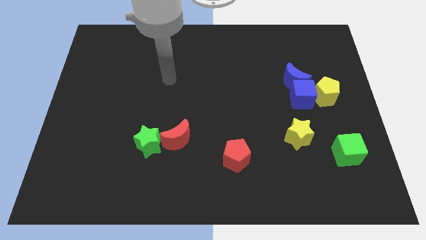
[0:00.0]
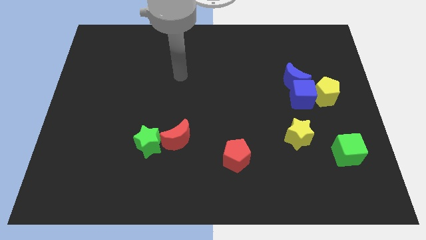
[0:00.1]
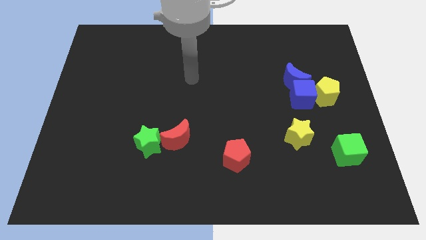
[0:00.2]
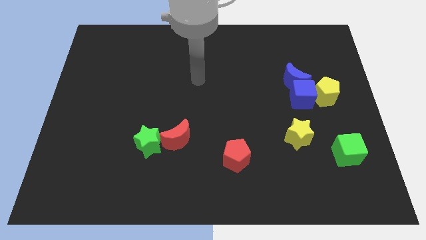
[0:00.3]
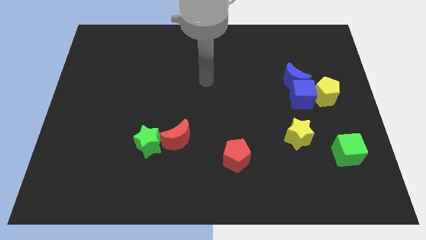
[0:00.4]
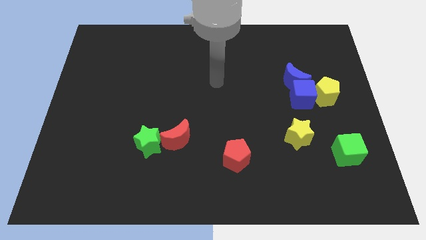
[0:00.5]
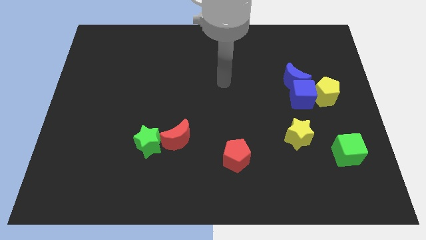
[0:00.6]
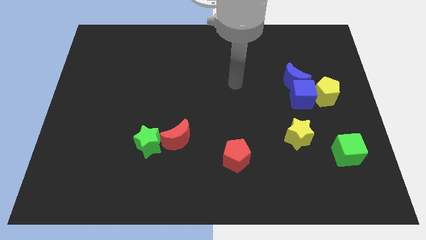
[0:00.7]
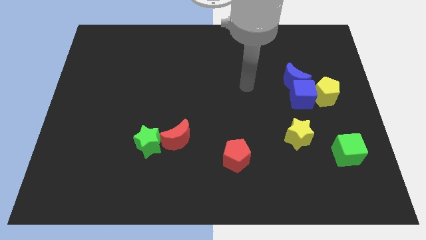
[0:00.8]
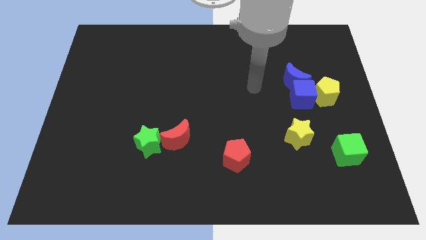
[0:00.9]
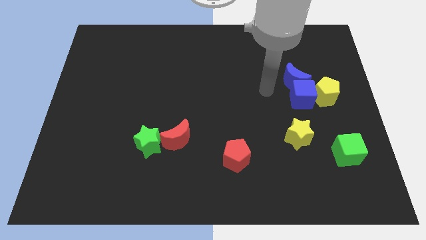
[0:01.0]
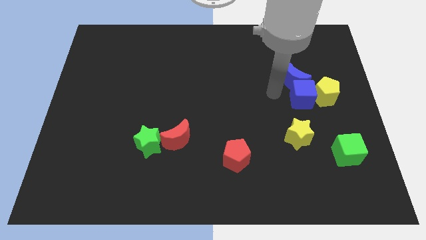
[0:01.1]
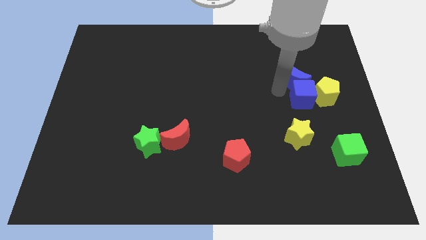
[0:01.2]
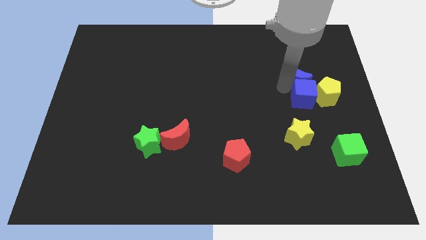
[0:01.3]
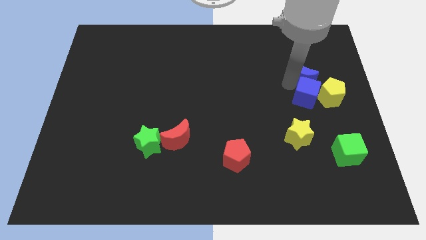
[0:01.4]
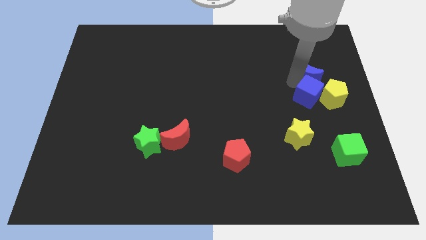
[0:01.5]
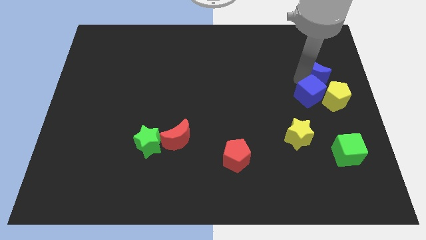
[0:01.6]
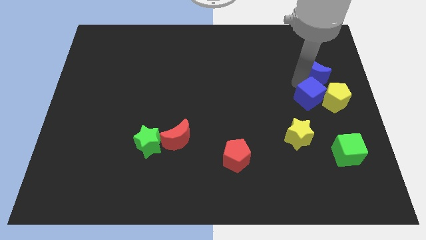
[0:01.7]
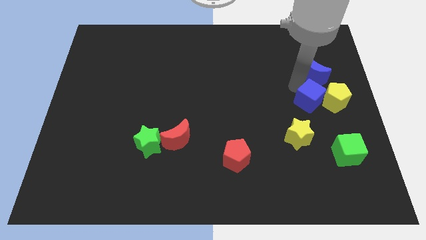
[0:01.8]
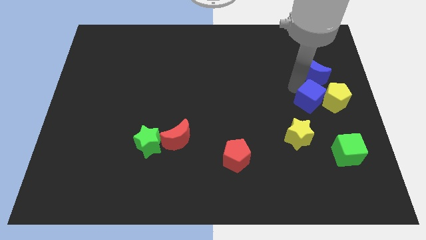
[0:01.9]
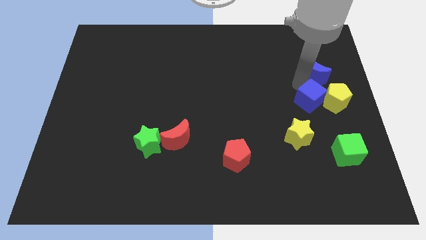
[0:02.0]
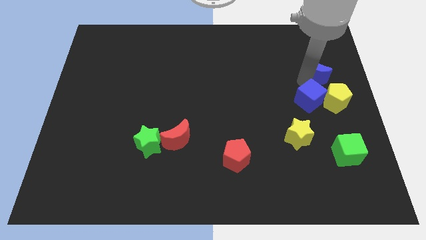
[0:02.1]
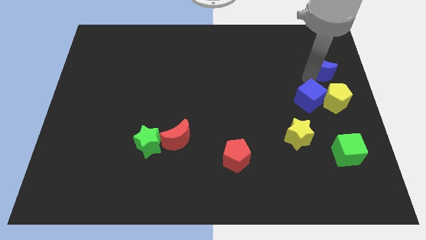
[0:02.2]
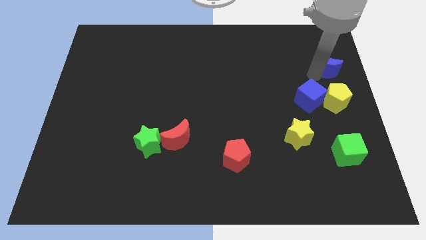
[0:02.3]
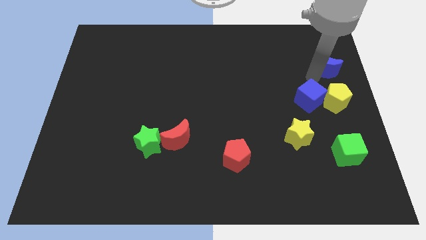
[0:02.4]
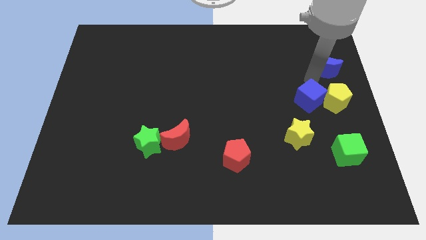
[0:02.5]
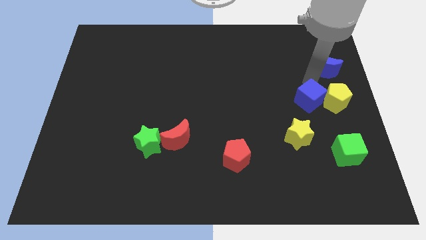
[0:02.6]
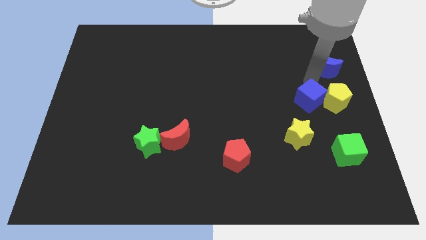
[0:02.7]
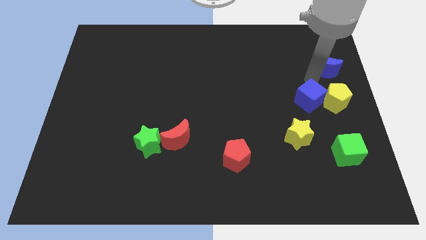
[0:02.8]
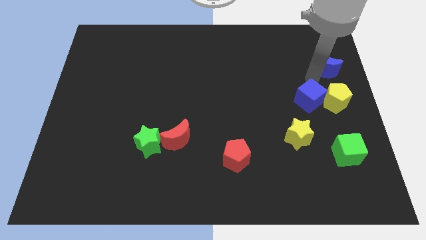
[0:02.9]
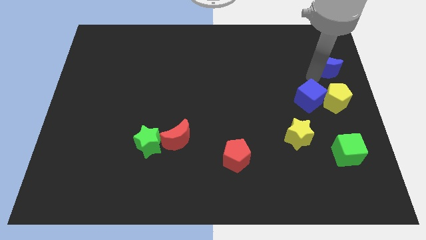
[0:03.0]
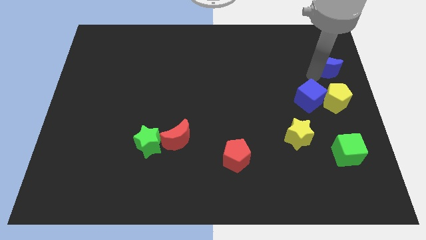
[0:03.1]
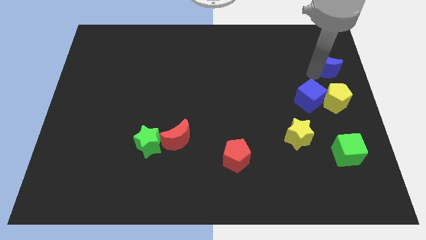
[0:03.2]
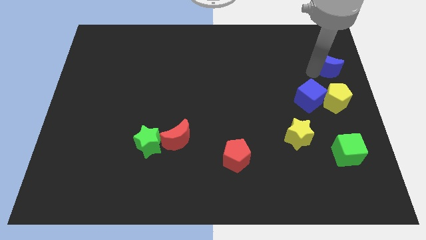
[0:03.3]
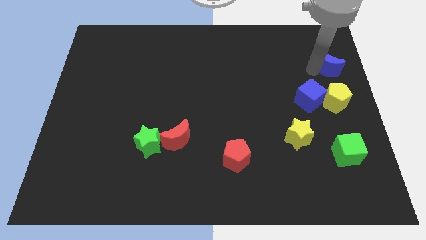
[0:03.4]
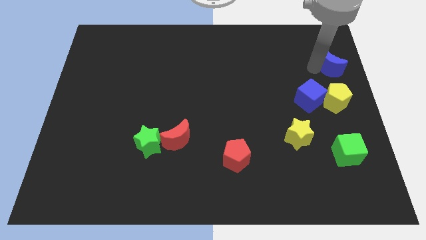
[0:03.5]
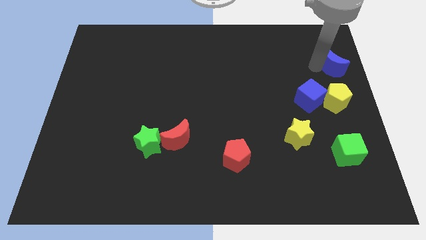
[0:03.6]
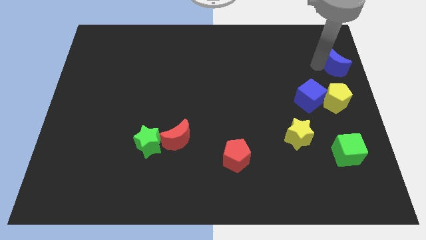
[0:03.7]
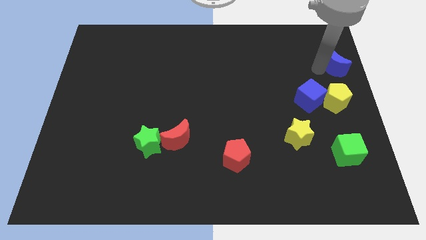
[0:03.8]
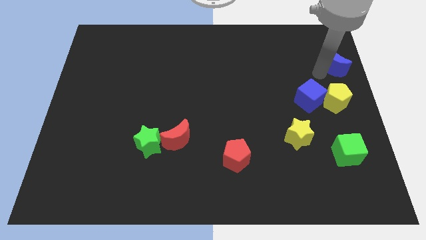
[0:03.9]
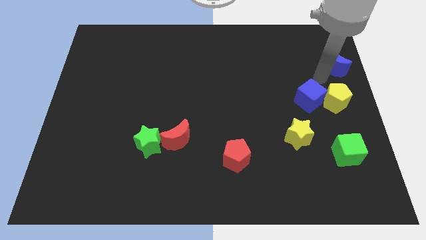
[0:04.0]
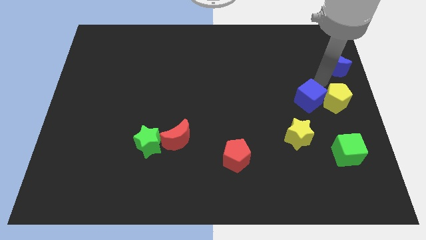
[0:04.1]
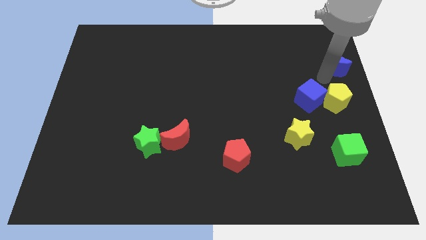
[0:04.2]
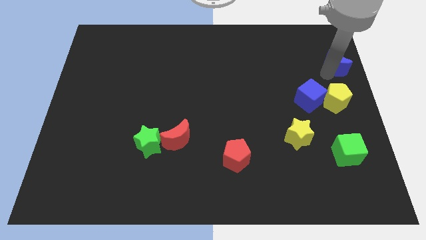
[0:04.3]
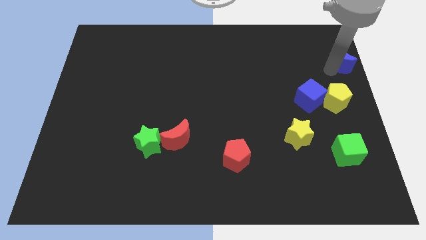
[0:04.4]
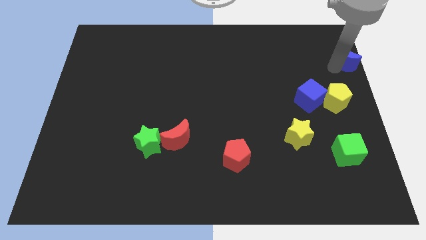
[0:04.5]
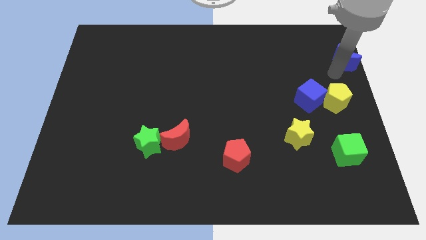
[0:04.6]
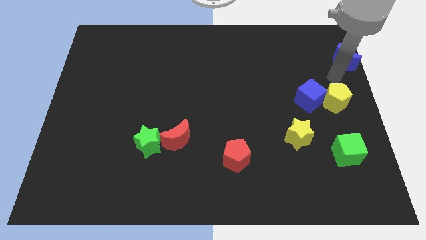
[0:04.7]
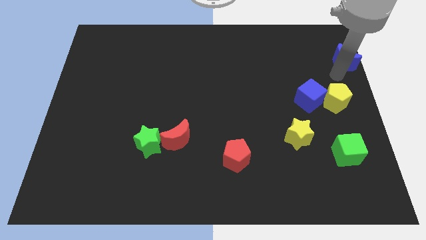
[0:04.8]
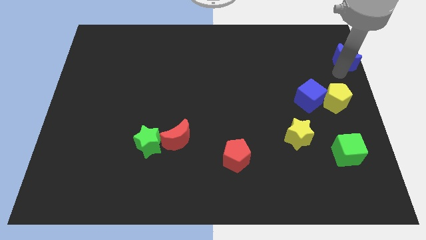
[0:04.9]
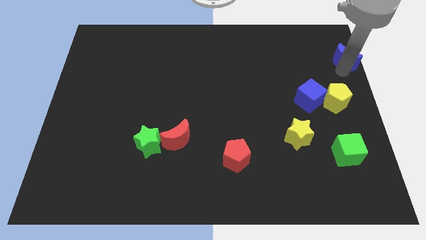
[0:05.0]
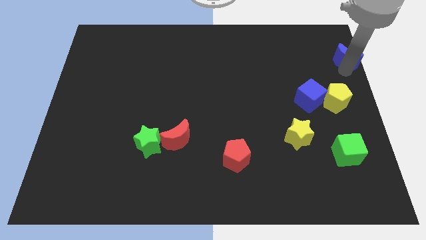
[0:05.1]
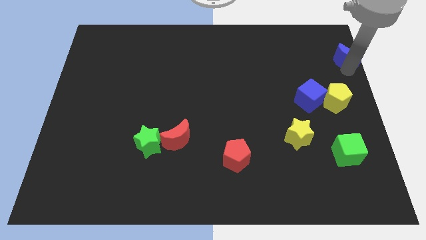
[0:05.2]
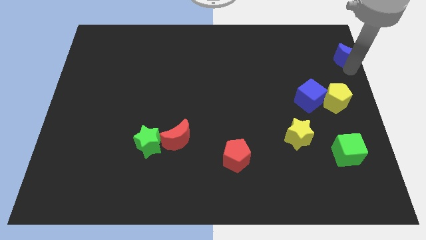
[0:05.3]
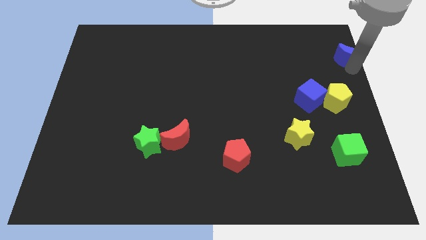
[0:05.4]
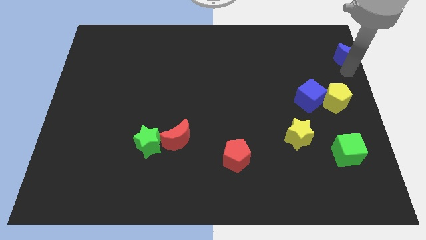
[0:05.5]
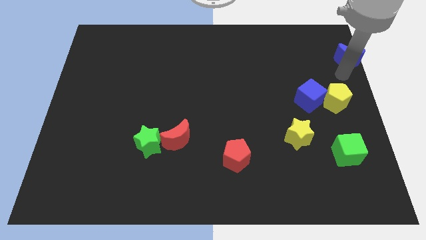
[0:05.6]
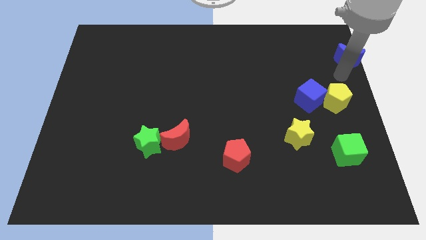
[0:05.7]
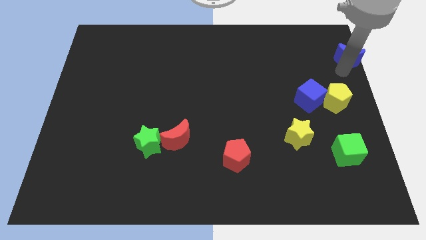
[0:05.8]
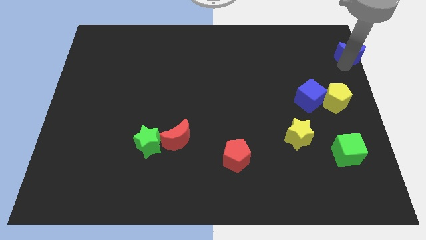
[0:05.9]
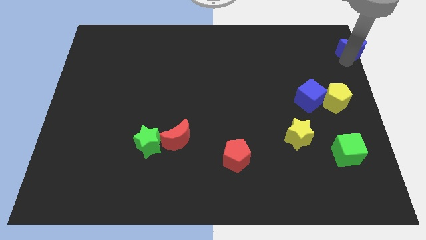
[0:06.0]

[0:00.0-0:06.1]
slide the blue moon to the top right corner

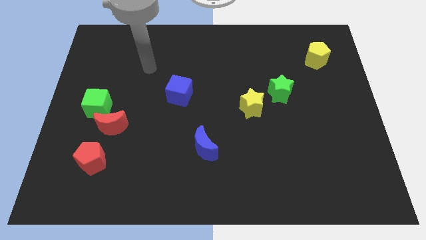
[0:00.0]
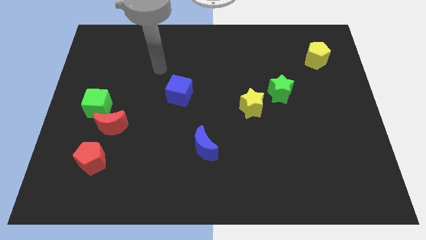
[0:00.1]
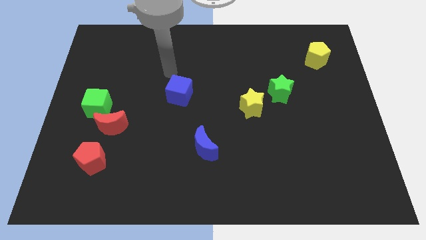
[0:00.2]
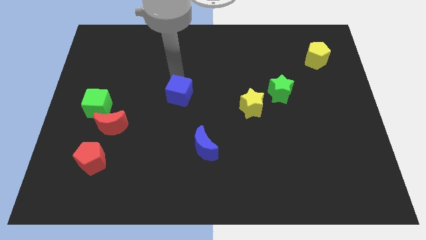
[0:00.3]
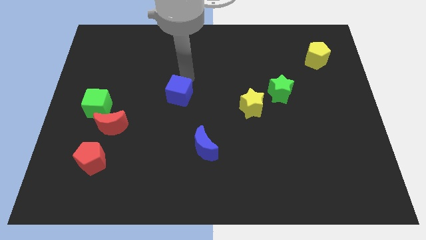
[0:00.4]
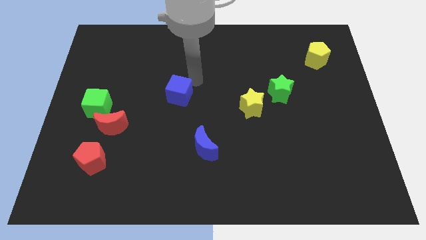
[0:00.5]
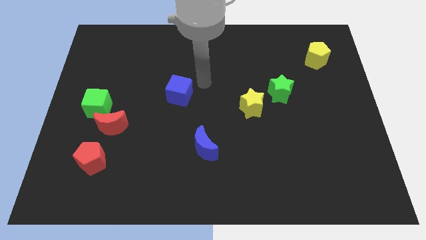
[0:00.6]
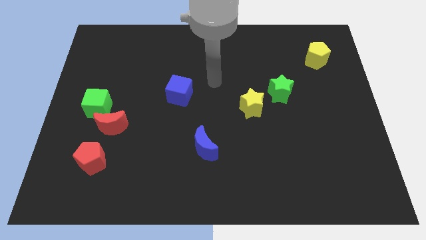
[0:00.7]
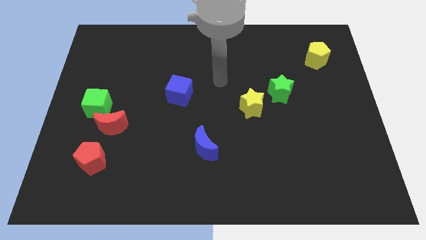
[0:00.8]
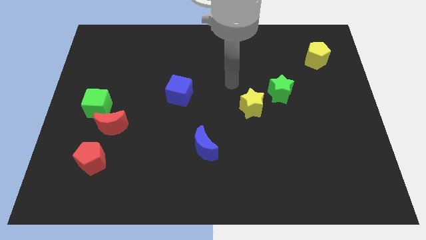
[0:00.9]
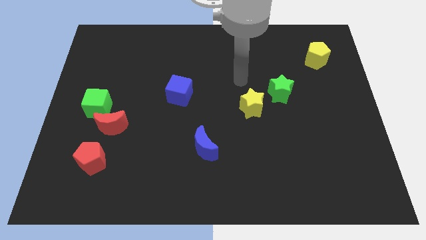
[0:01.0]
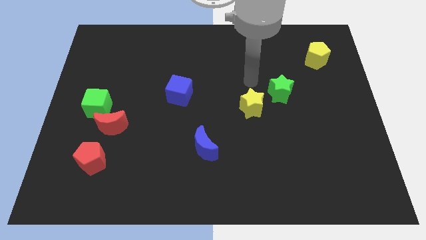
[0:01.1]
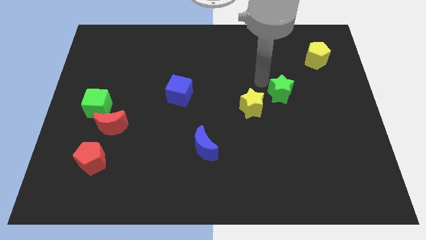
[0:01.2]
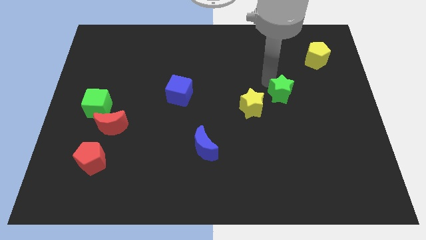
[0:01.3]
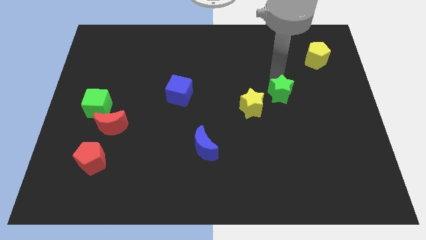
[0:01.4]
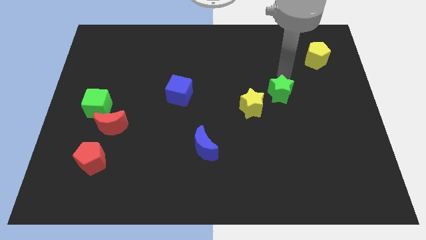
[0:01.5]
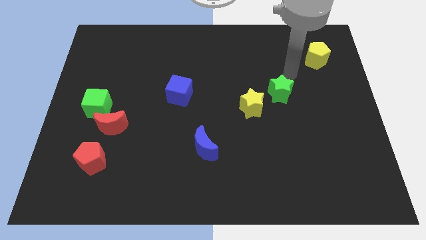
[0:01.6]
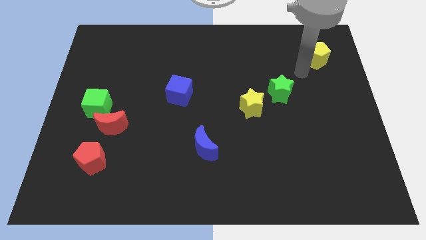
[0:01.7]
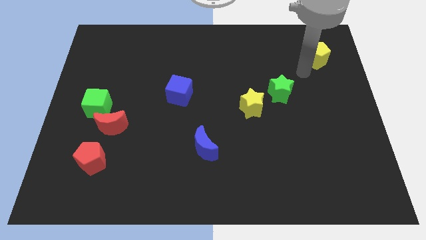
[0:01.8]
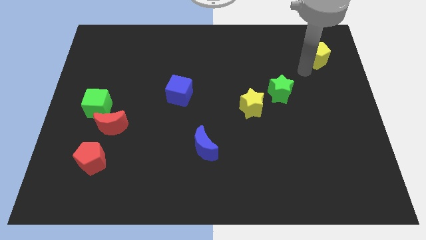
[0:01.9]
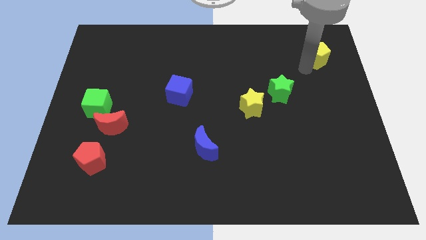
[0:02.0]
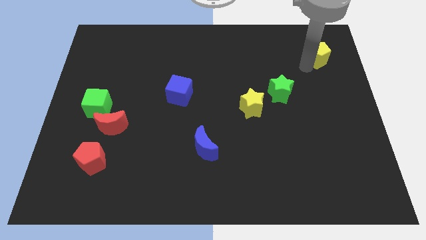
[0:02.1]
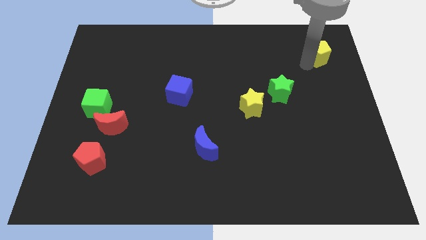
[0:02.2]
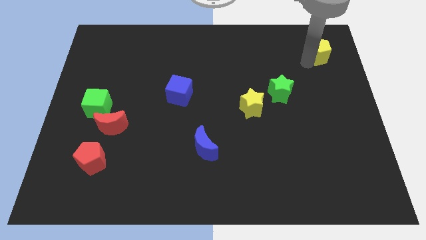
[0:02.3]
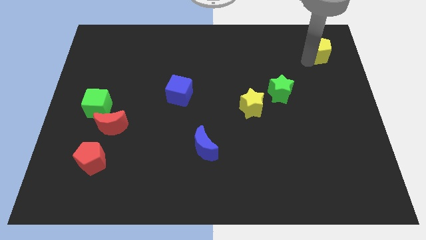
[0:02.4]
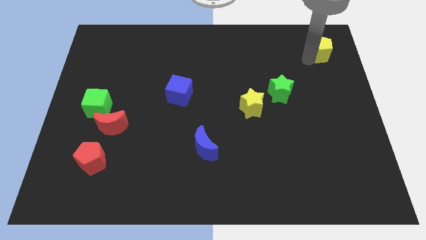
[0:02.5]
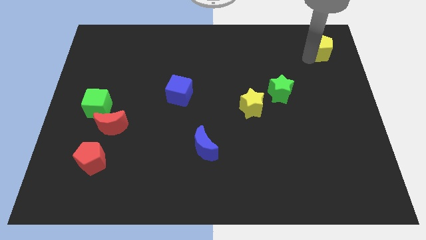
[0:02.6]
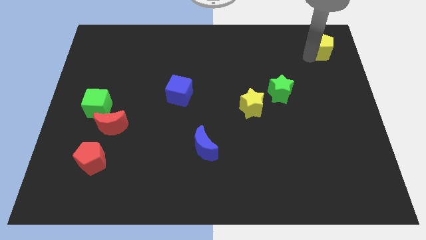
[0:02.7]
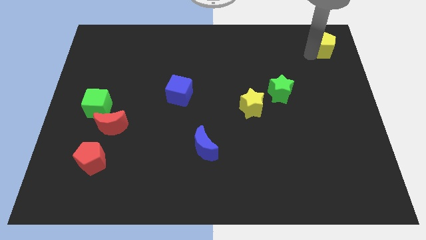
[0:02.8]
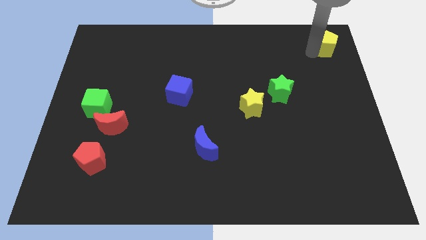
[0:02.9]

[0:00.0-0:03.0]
put the yellow pentagon to the upper right corner
